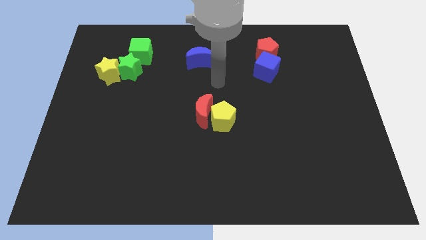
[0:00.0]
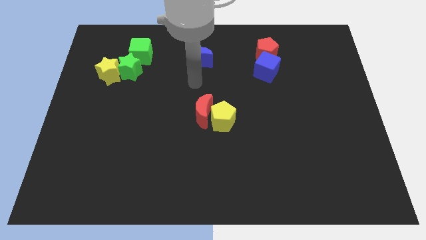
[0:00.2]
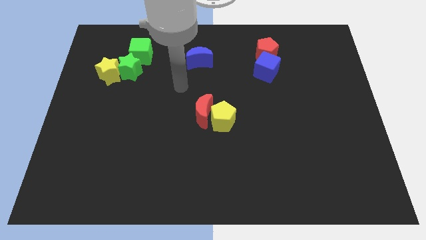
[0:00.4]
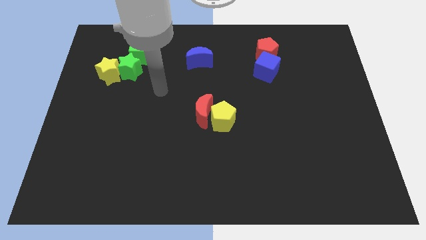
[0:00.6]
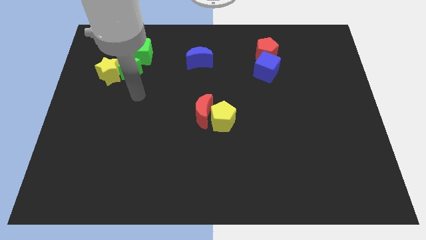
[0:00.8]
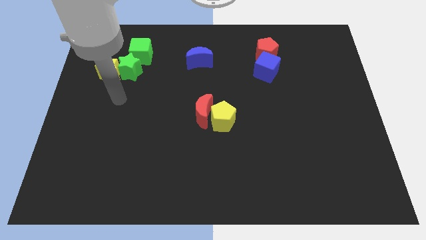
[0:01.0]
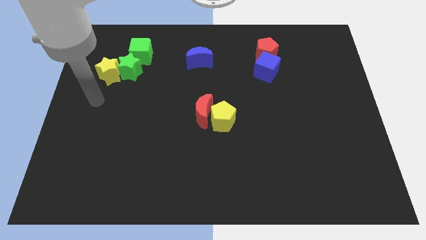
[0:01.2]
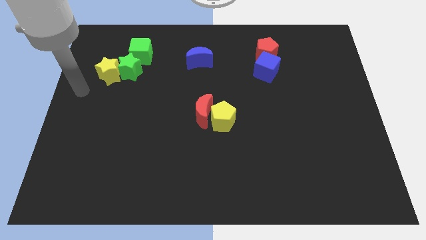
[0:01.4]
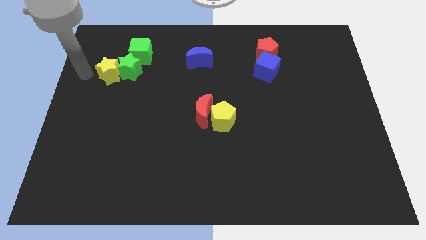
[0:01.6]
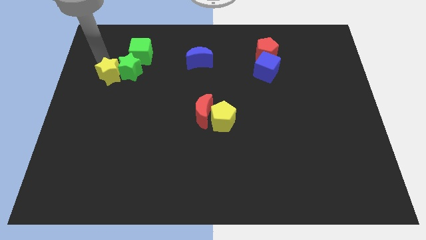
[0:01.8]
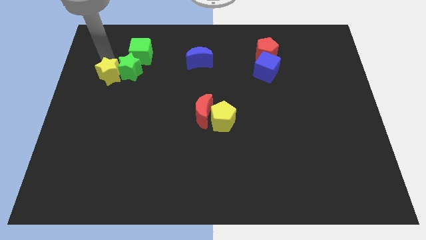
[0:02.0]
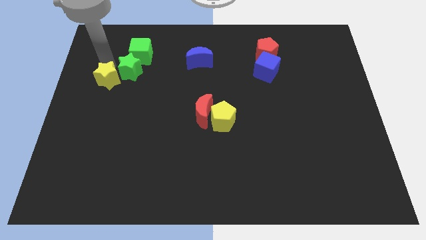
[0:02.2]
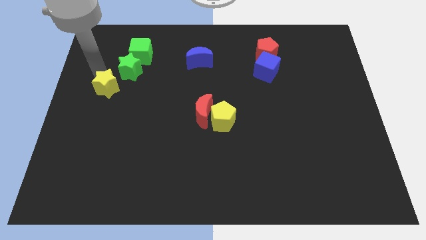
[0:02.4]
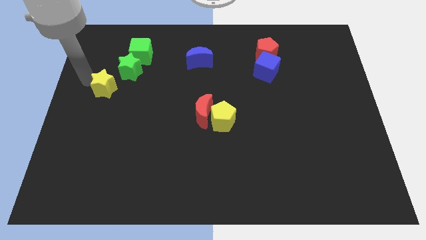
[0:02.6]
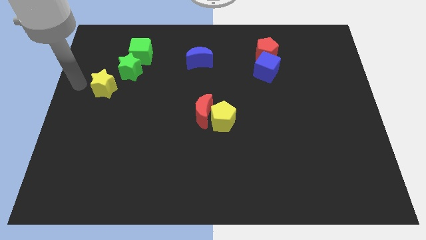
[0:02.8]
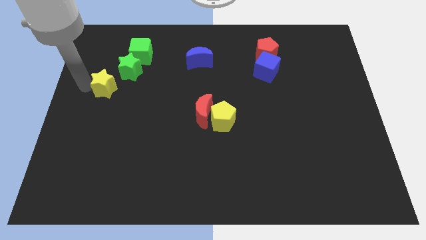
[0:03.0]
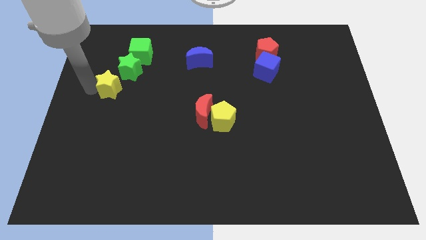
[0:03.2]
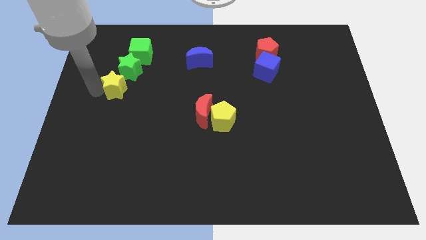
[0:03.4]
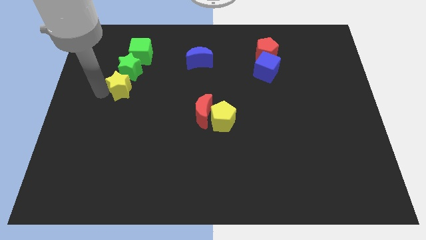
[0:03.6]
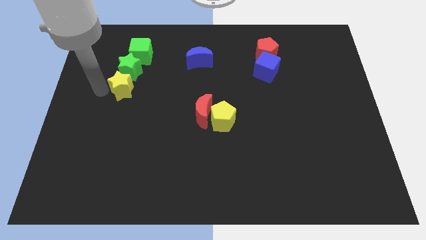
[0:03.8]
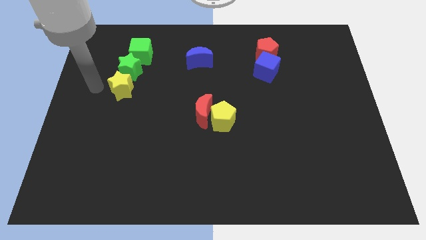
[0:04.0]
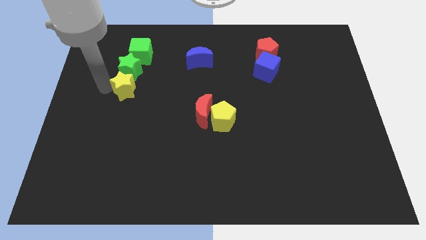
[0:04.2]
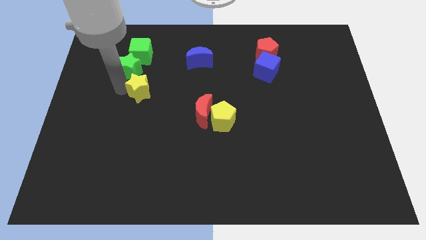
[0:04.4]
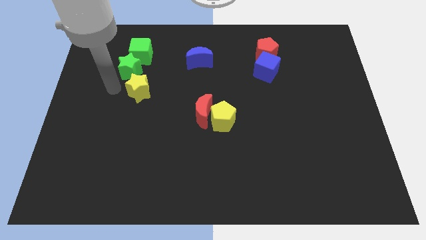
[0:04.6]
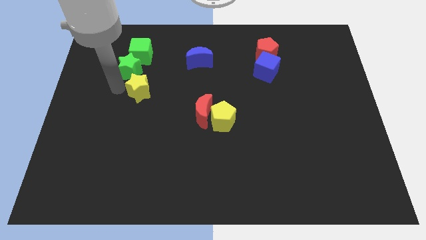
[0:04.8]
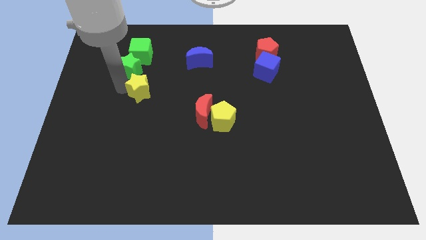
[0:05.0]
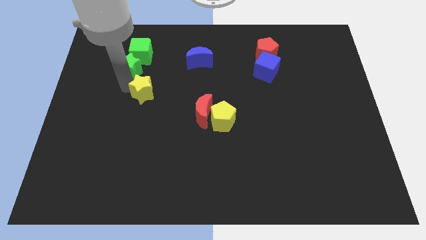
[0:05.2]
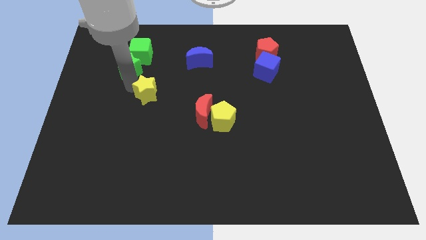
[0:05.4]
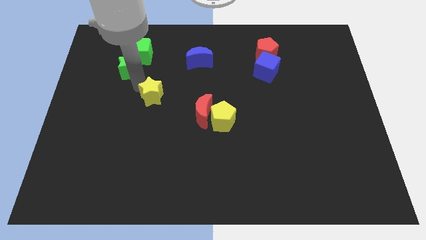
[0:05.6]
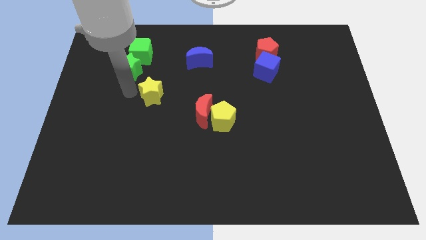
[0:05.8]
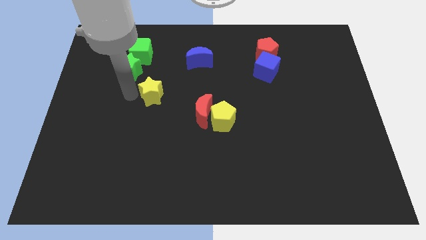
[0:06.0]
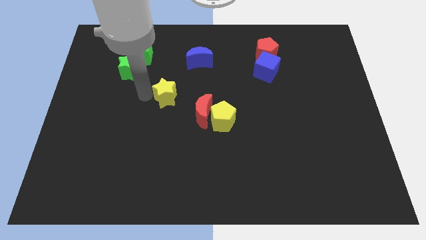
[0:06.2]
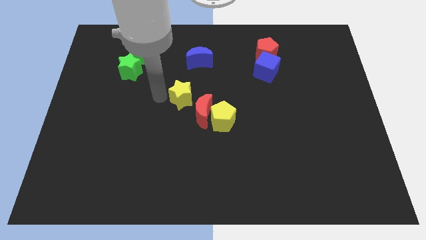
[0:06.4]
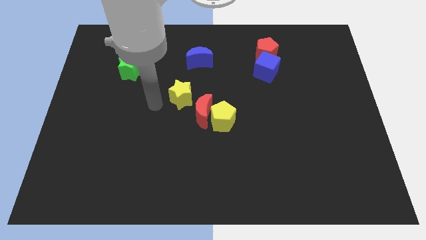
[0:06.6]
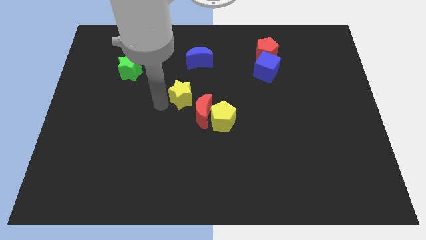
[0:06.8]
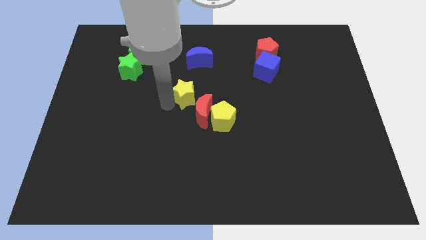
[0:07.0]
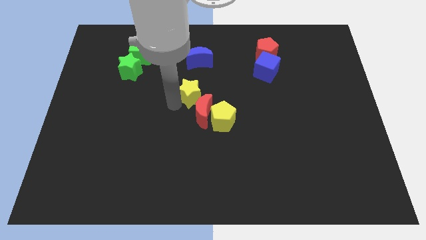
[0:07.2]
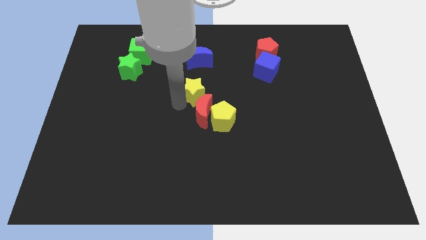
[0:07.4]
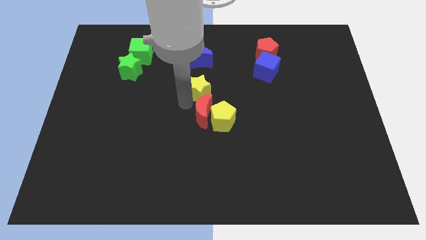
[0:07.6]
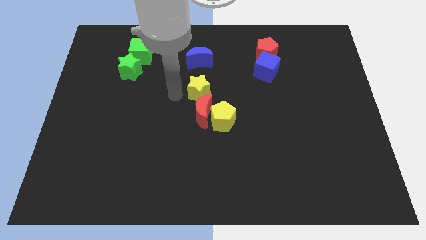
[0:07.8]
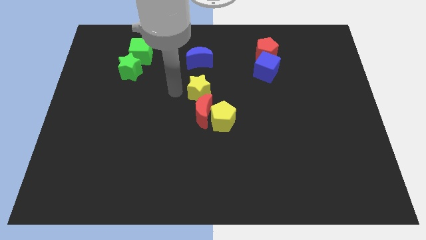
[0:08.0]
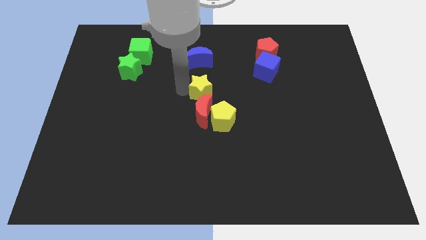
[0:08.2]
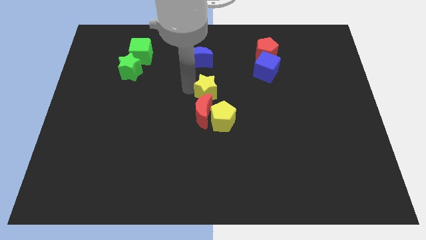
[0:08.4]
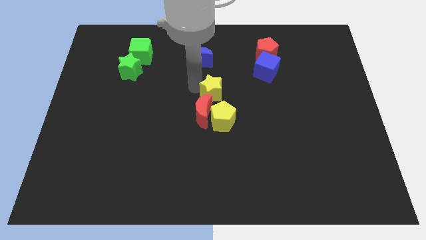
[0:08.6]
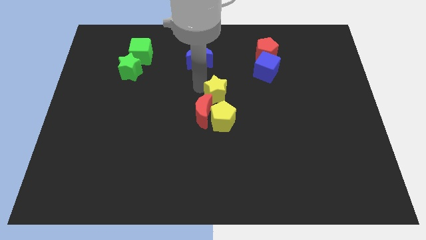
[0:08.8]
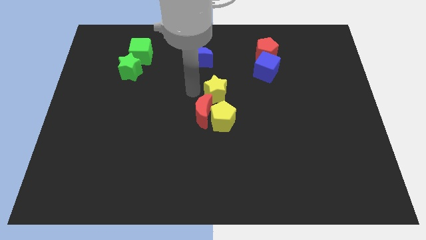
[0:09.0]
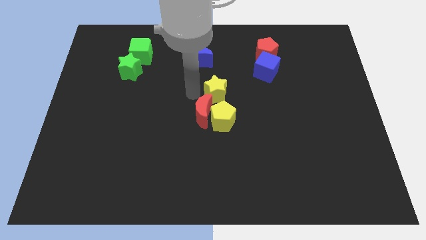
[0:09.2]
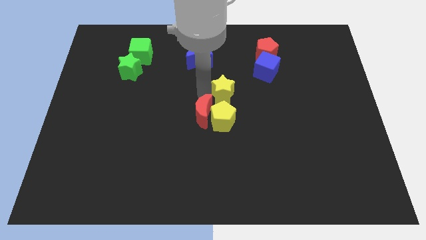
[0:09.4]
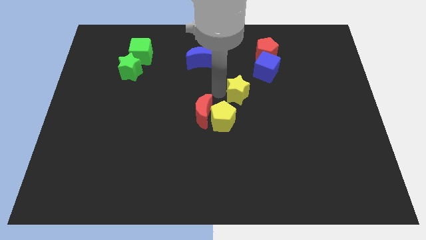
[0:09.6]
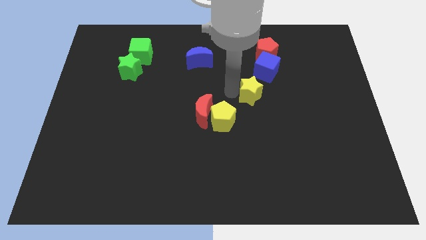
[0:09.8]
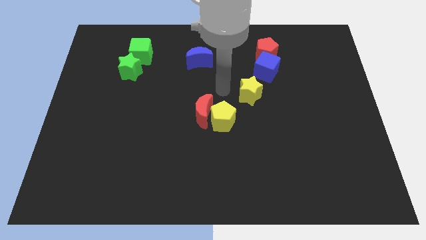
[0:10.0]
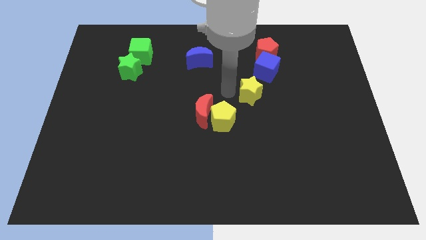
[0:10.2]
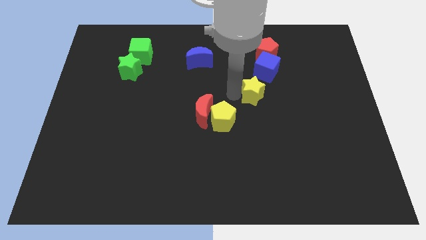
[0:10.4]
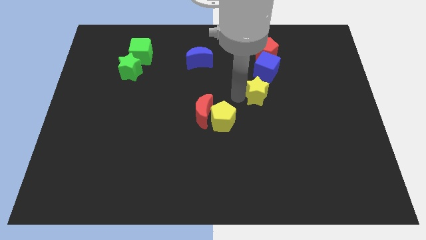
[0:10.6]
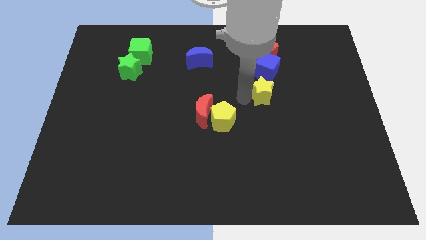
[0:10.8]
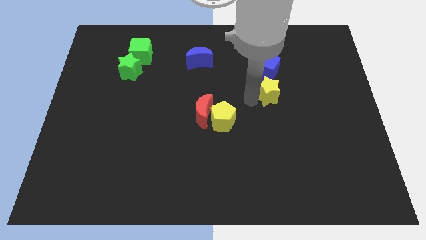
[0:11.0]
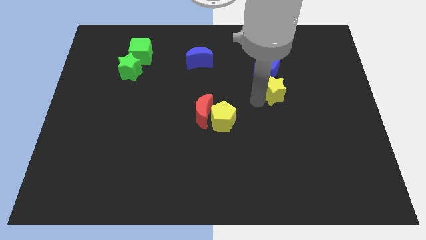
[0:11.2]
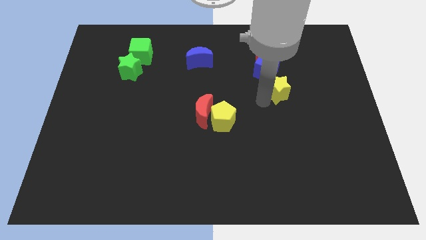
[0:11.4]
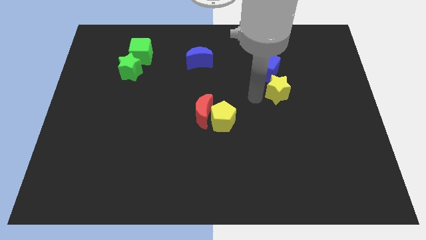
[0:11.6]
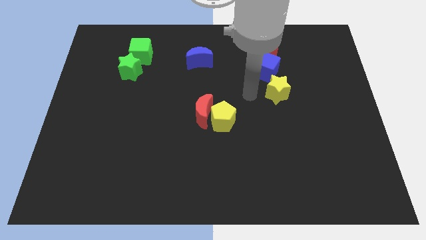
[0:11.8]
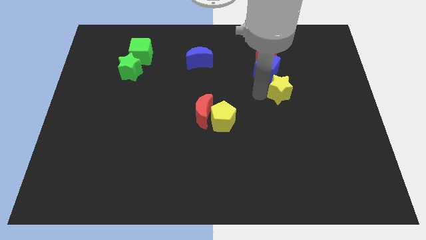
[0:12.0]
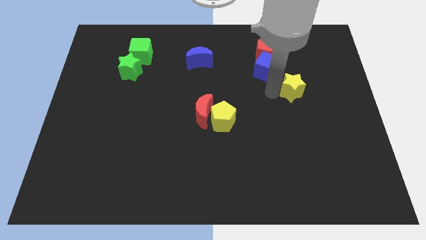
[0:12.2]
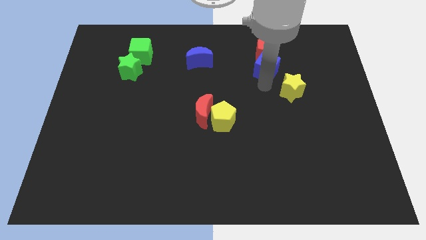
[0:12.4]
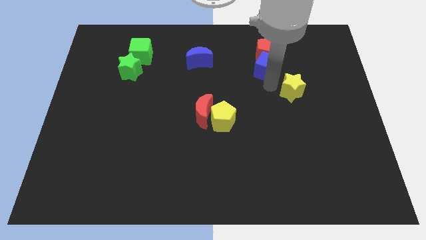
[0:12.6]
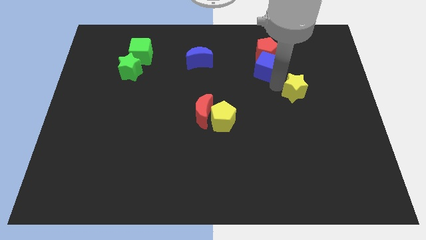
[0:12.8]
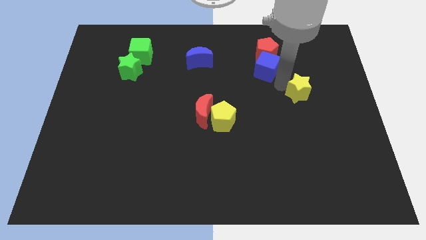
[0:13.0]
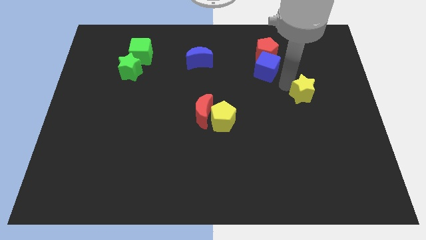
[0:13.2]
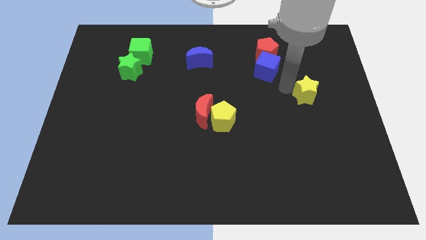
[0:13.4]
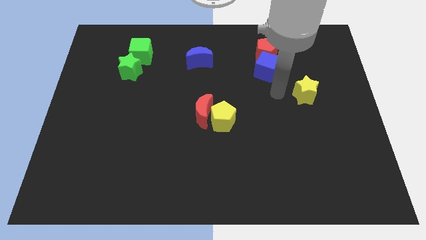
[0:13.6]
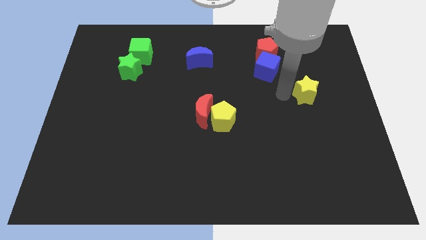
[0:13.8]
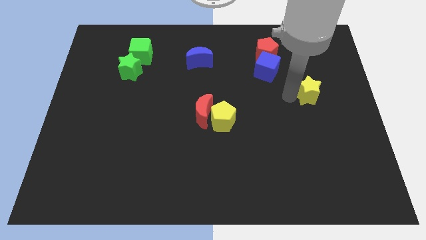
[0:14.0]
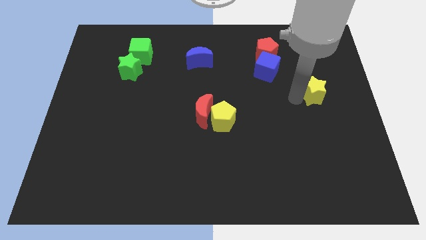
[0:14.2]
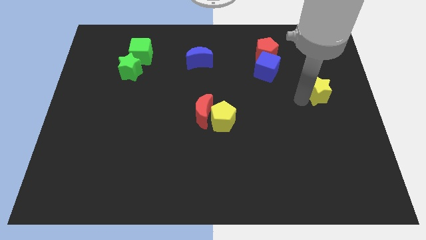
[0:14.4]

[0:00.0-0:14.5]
put the yellow star to the right side of the board
